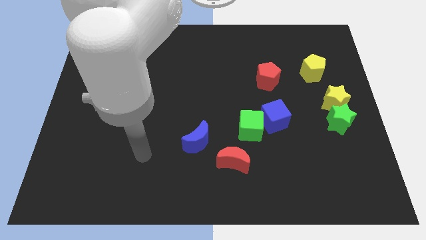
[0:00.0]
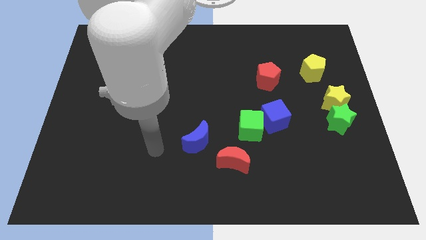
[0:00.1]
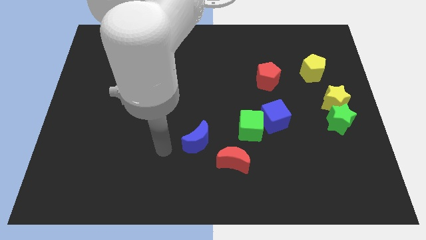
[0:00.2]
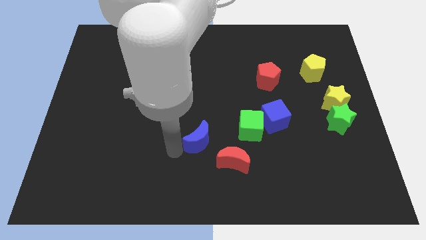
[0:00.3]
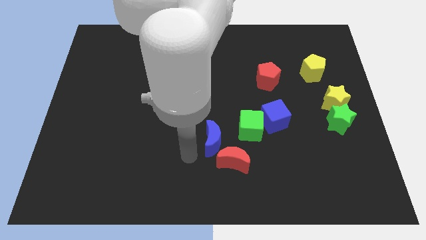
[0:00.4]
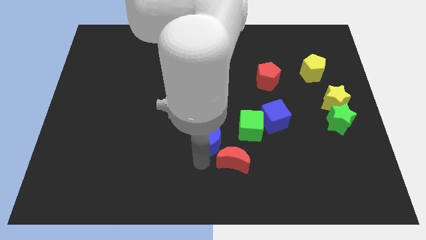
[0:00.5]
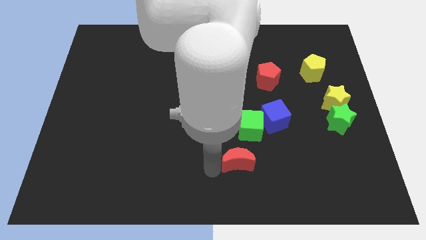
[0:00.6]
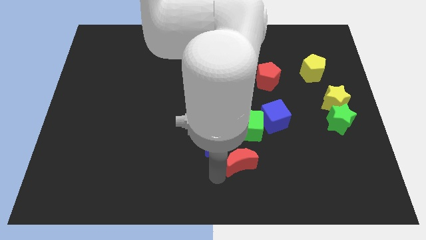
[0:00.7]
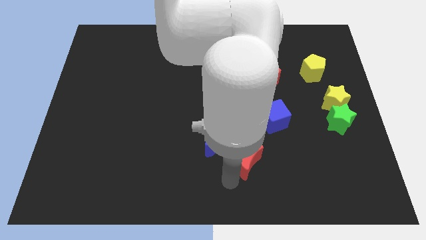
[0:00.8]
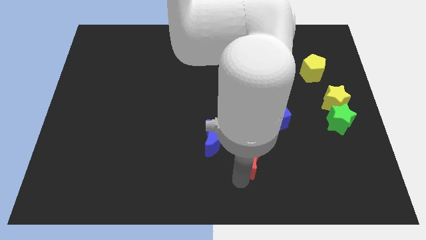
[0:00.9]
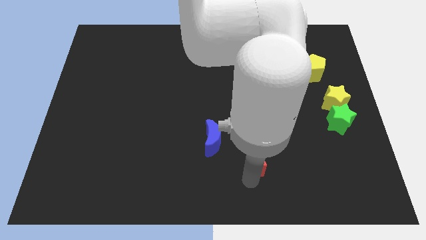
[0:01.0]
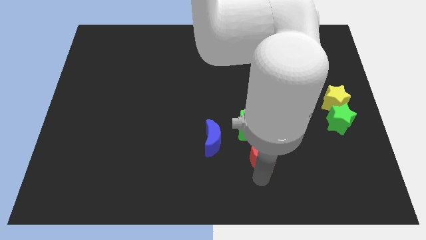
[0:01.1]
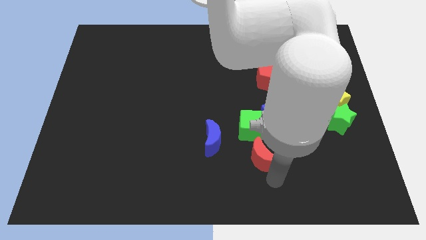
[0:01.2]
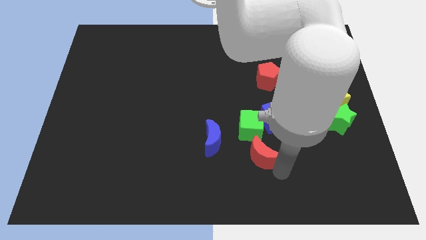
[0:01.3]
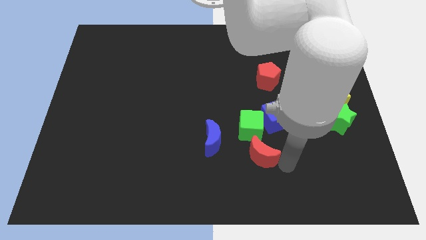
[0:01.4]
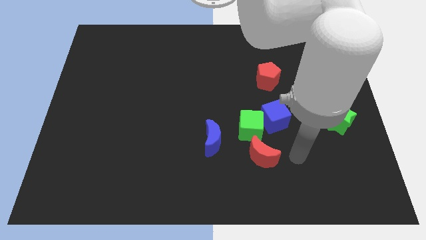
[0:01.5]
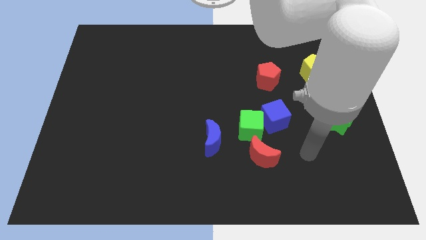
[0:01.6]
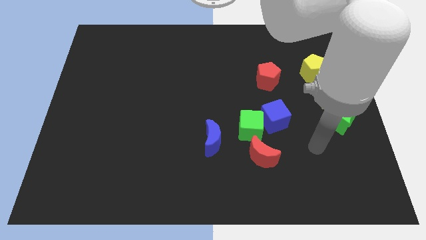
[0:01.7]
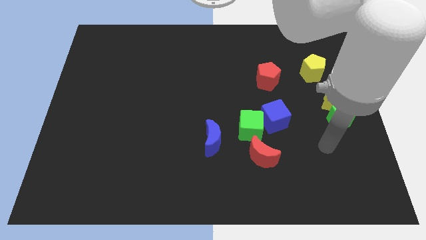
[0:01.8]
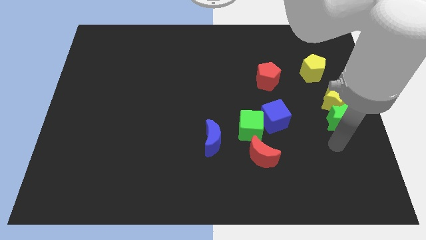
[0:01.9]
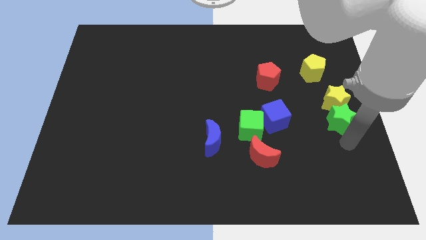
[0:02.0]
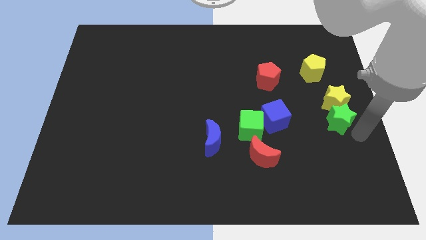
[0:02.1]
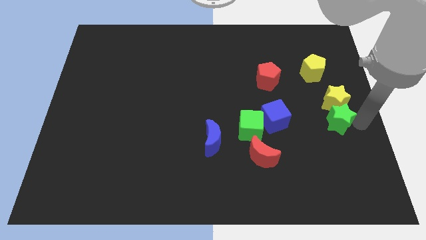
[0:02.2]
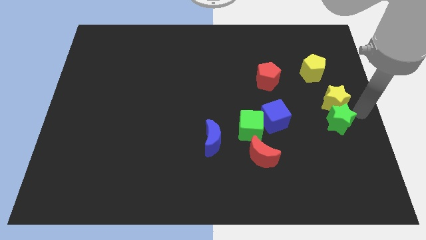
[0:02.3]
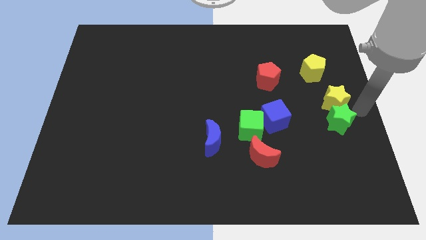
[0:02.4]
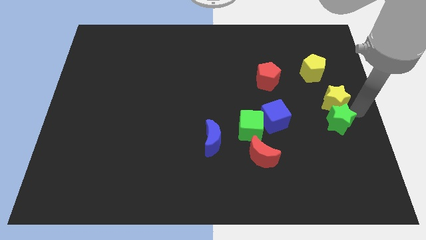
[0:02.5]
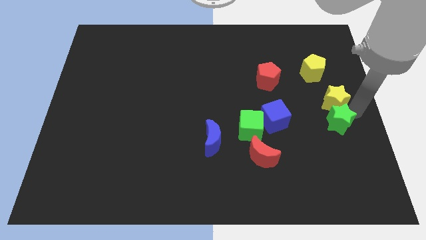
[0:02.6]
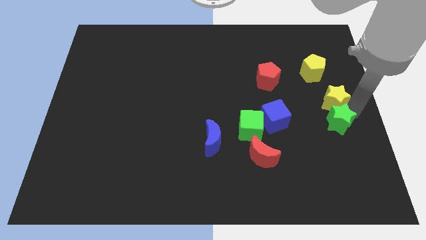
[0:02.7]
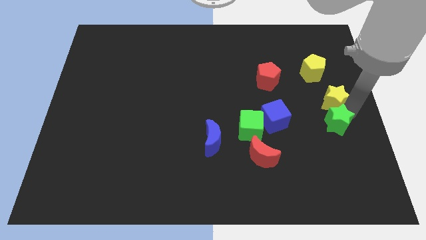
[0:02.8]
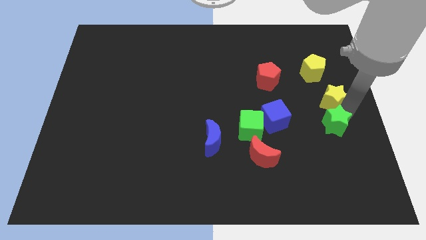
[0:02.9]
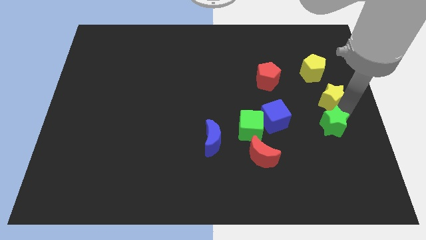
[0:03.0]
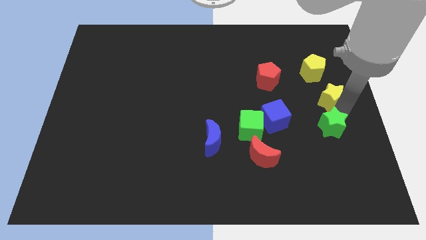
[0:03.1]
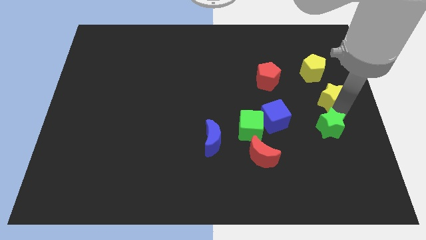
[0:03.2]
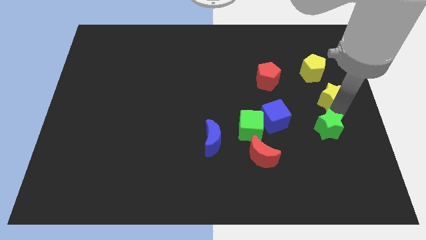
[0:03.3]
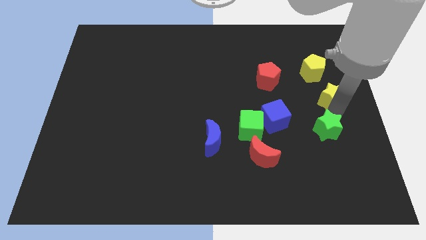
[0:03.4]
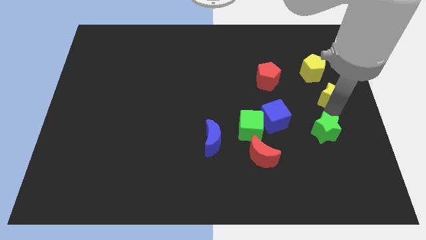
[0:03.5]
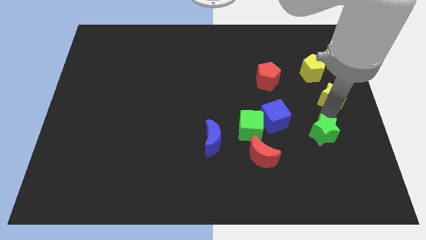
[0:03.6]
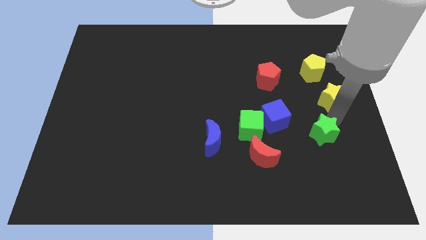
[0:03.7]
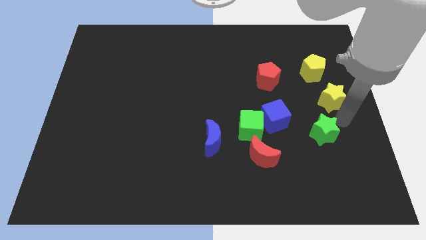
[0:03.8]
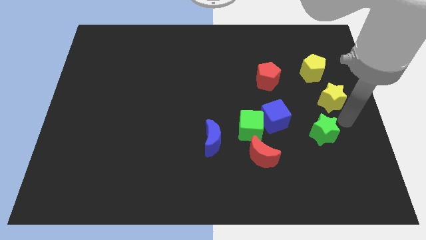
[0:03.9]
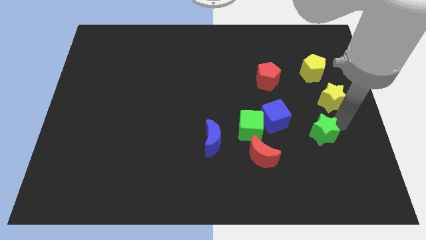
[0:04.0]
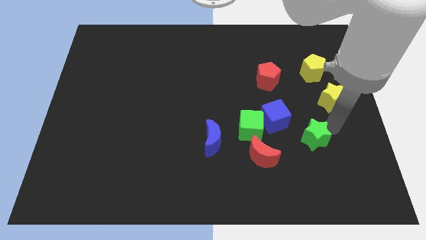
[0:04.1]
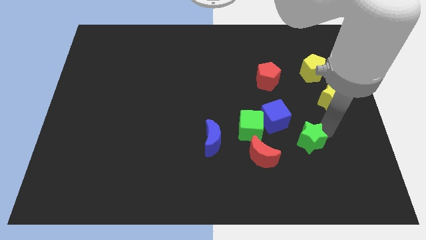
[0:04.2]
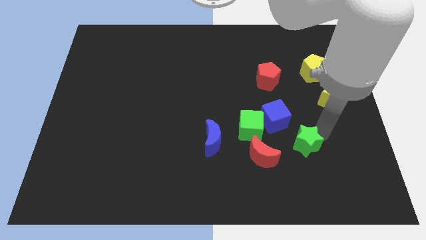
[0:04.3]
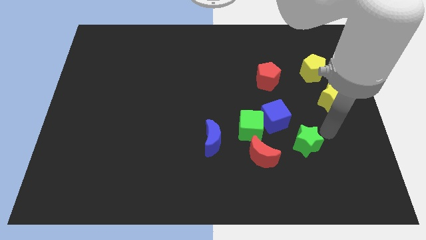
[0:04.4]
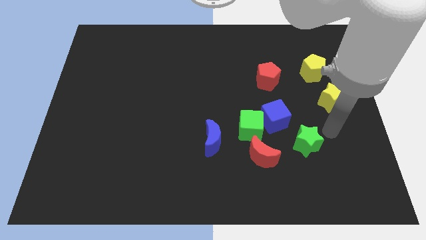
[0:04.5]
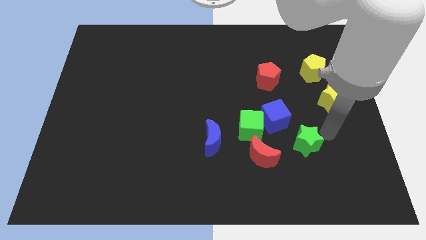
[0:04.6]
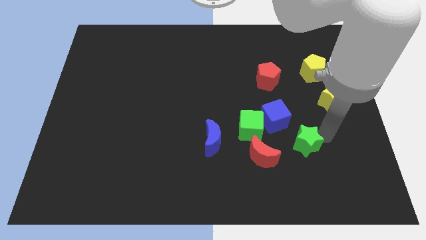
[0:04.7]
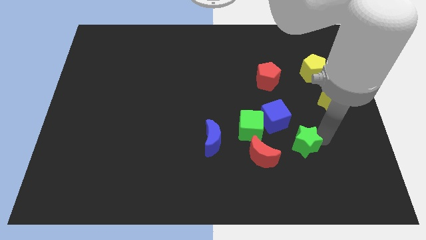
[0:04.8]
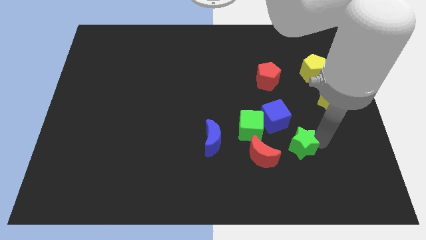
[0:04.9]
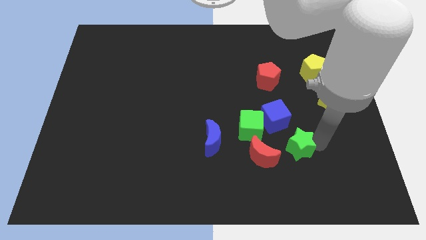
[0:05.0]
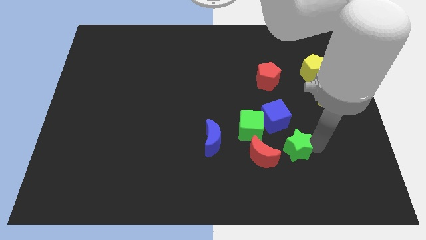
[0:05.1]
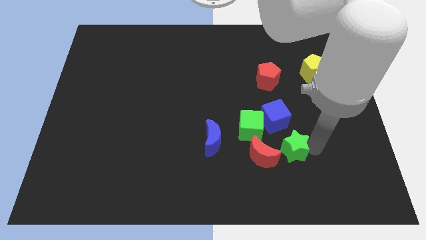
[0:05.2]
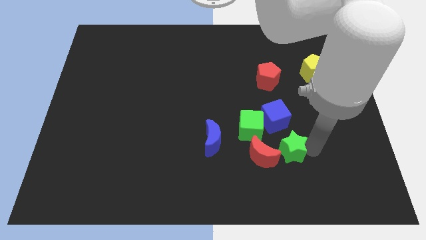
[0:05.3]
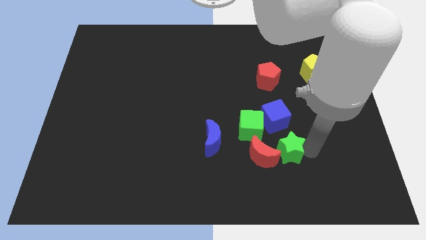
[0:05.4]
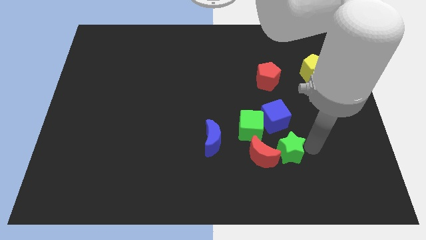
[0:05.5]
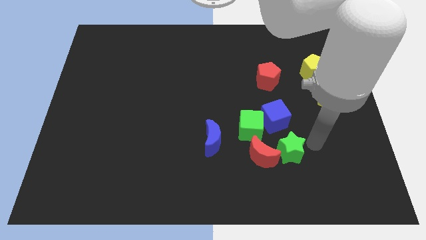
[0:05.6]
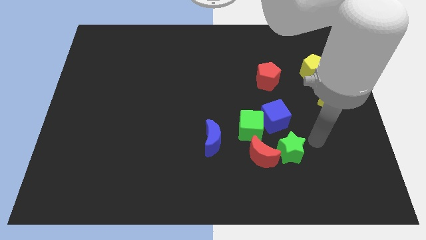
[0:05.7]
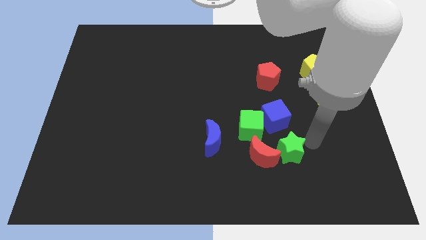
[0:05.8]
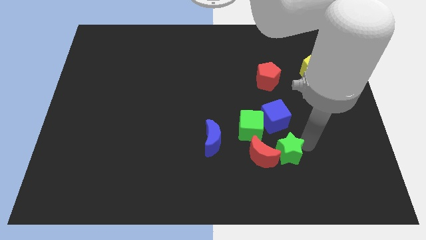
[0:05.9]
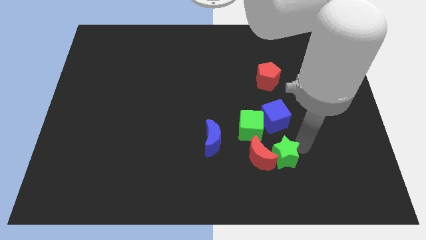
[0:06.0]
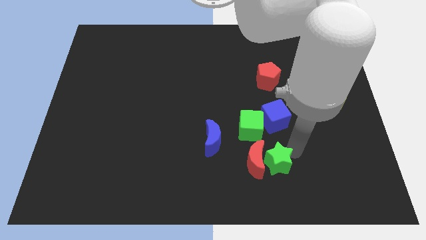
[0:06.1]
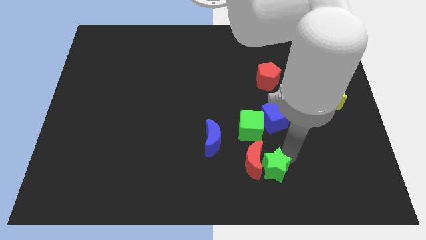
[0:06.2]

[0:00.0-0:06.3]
slide the green star below the green cube

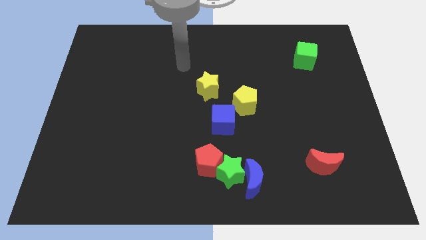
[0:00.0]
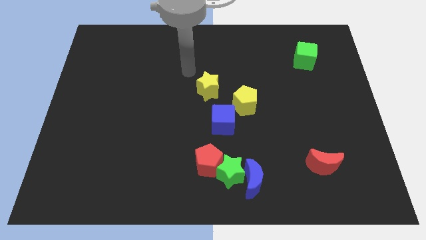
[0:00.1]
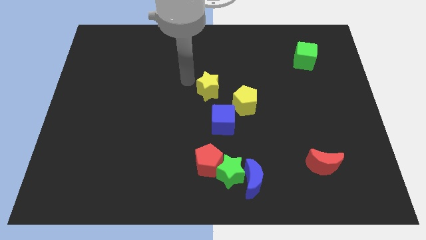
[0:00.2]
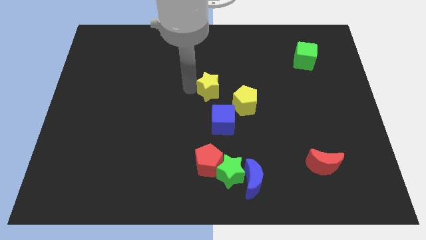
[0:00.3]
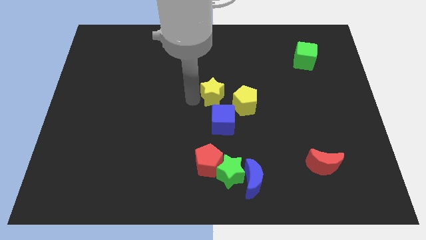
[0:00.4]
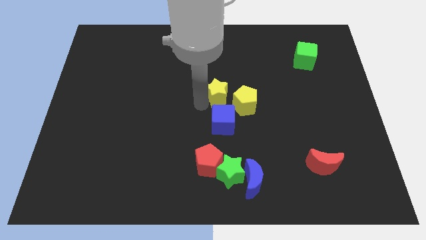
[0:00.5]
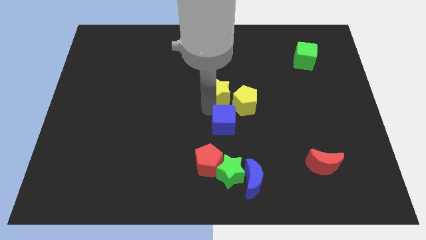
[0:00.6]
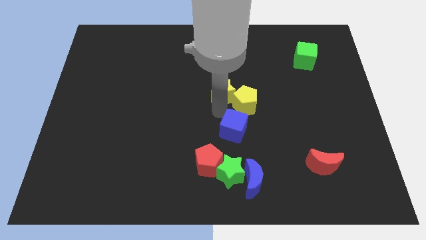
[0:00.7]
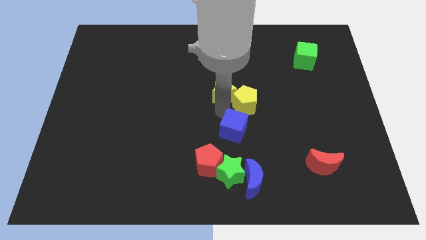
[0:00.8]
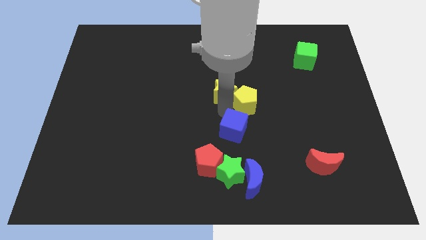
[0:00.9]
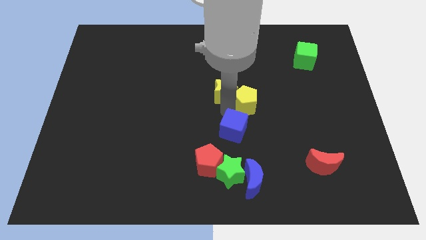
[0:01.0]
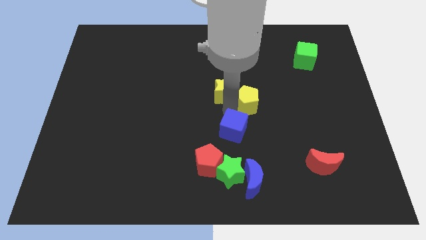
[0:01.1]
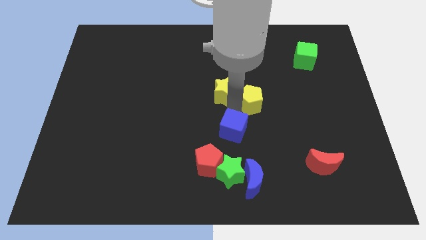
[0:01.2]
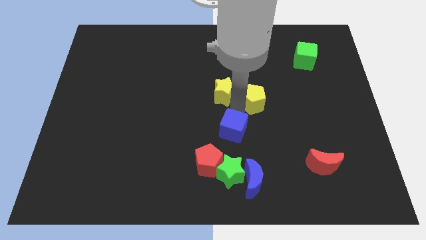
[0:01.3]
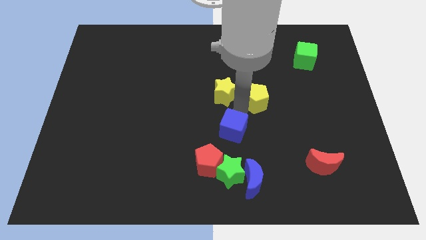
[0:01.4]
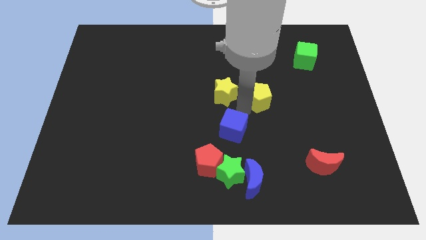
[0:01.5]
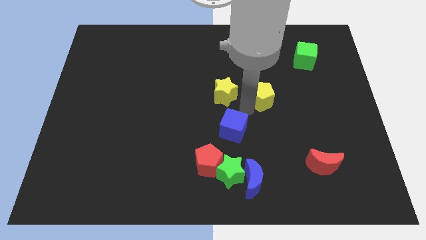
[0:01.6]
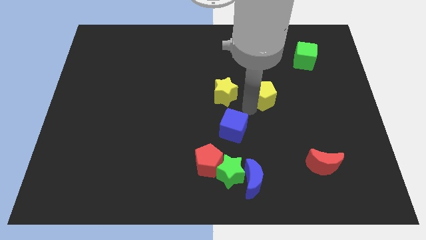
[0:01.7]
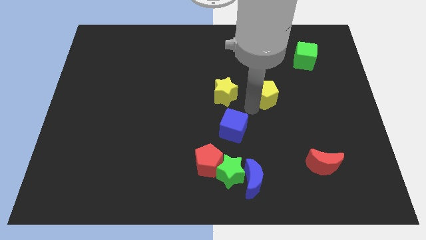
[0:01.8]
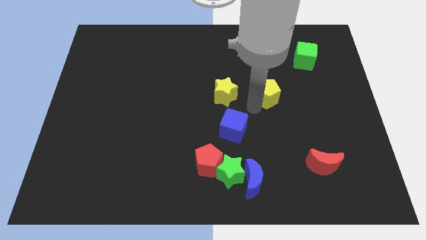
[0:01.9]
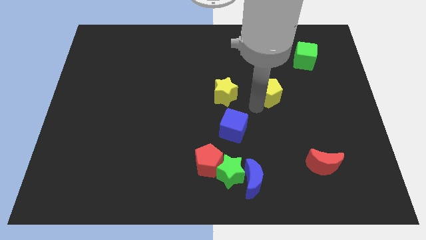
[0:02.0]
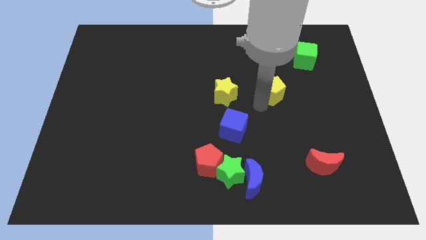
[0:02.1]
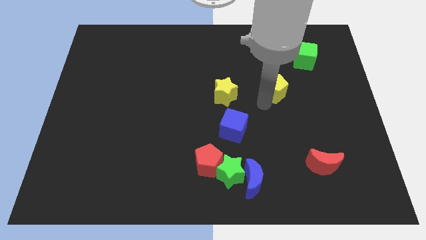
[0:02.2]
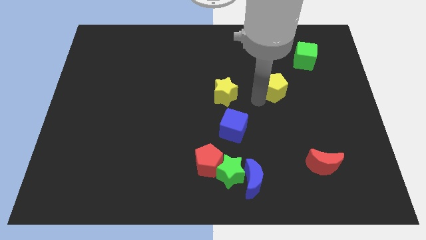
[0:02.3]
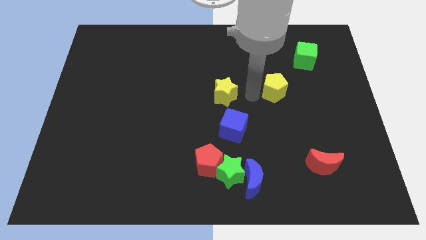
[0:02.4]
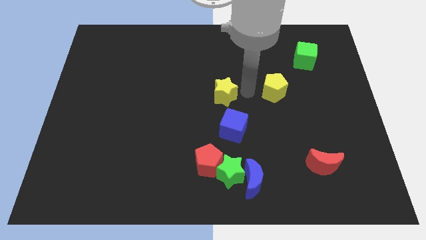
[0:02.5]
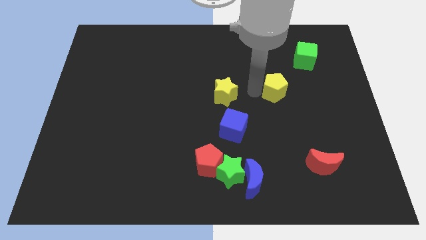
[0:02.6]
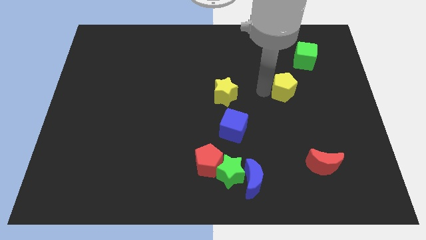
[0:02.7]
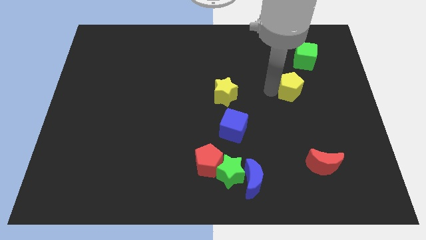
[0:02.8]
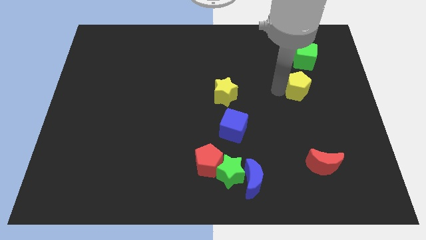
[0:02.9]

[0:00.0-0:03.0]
put the yellow pentagon below the green cube
